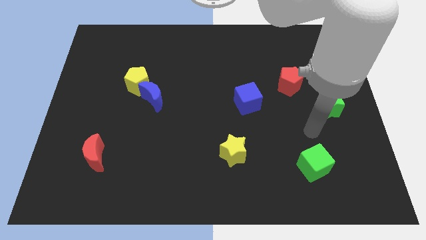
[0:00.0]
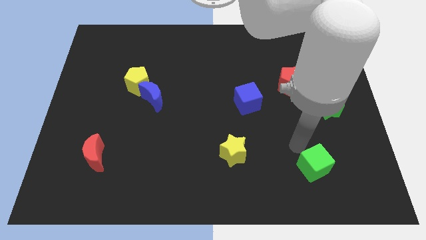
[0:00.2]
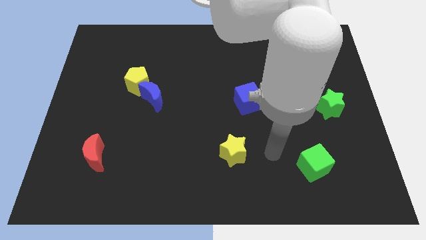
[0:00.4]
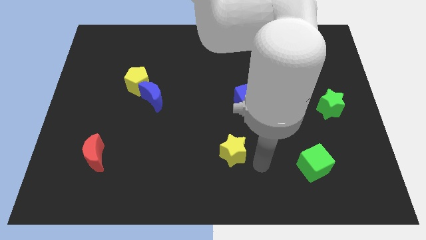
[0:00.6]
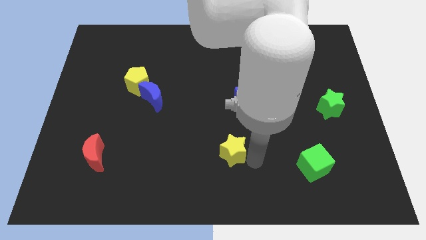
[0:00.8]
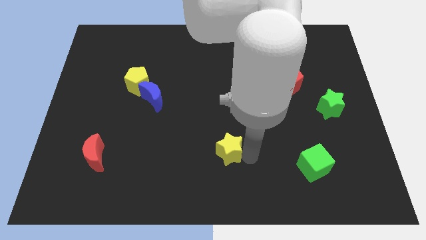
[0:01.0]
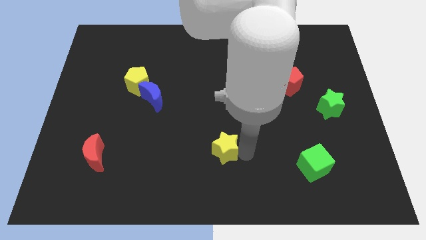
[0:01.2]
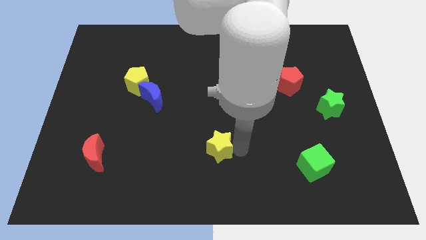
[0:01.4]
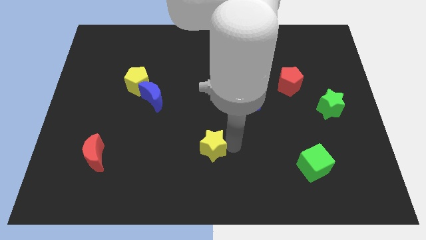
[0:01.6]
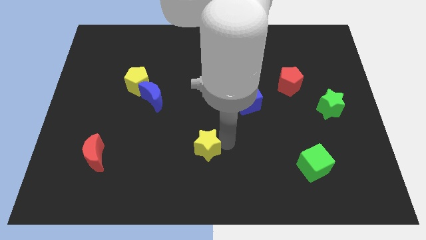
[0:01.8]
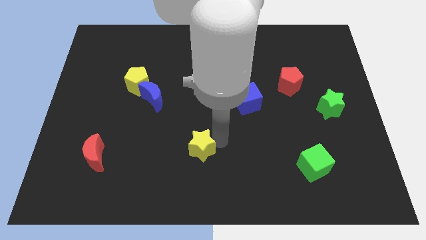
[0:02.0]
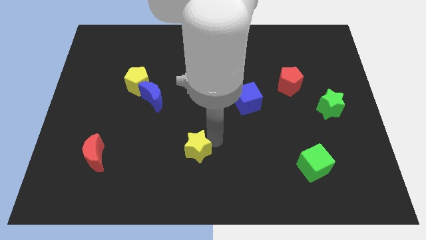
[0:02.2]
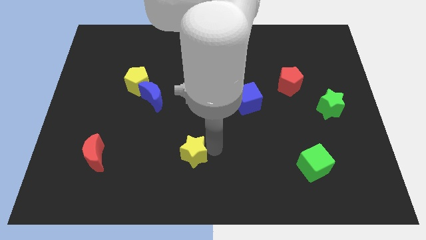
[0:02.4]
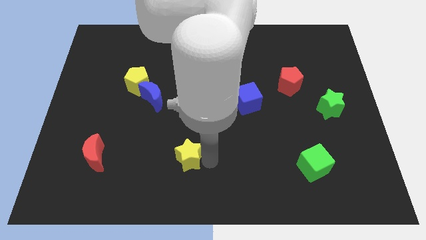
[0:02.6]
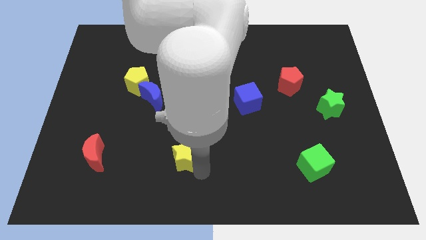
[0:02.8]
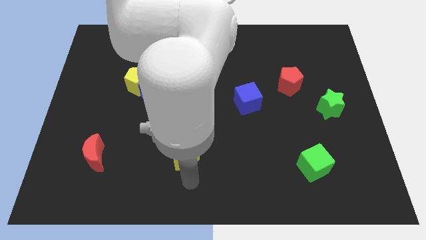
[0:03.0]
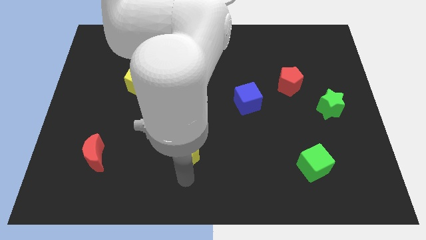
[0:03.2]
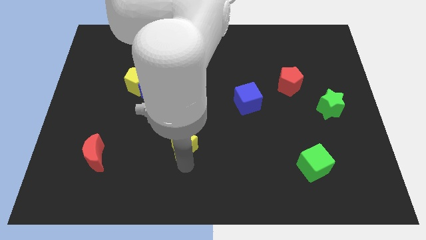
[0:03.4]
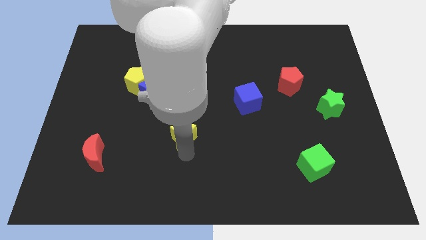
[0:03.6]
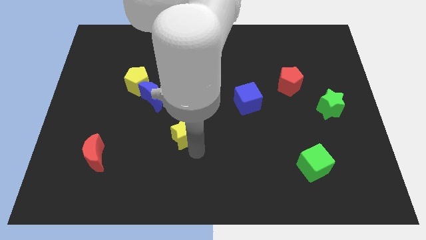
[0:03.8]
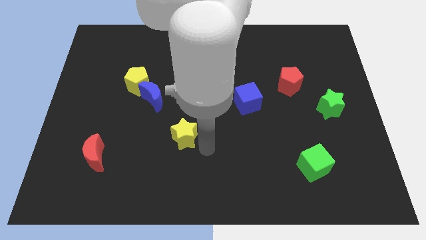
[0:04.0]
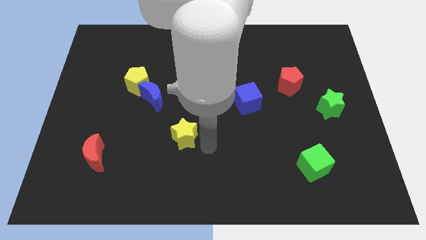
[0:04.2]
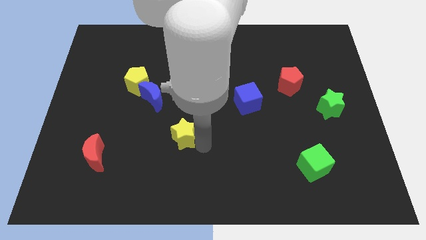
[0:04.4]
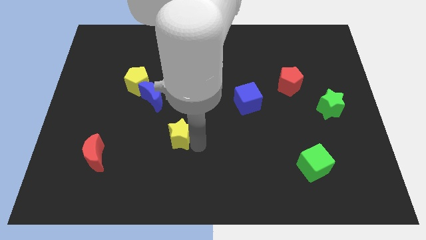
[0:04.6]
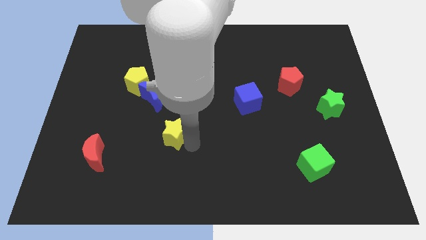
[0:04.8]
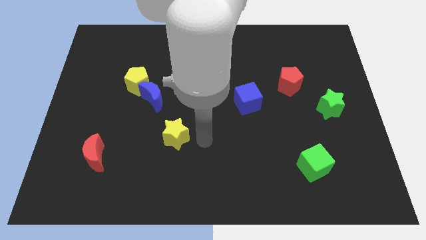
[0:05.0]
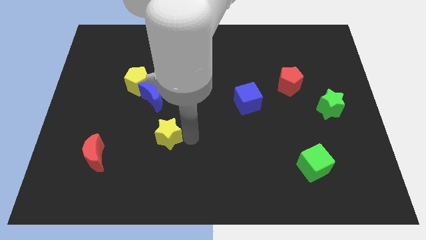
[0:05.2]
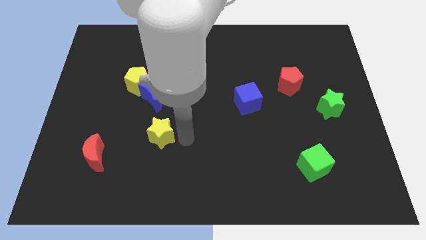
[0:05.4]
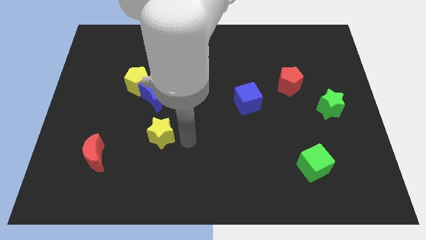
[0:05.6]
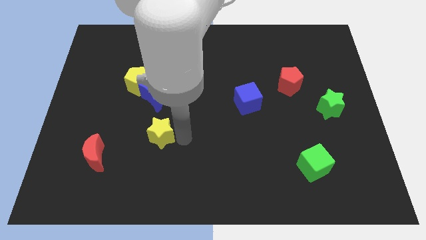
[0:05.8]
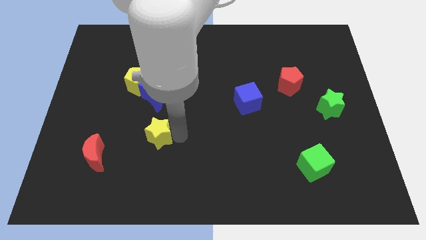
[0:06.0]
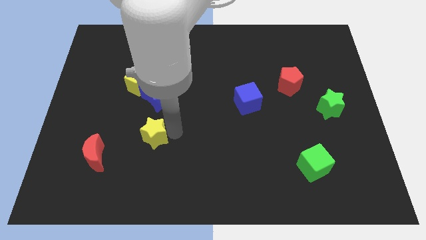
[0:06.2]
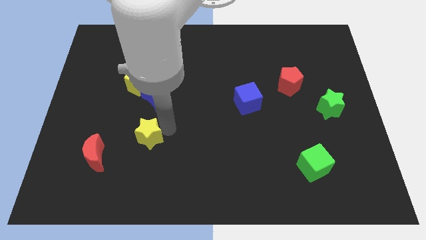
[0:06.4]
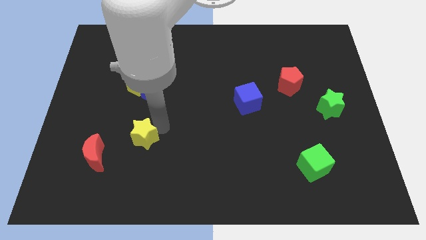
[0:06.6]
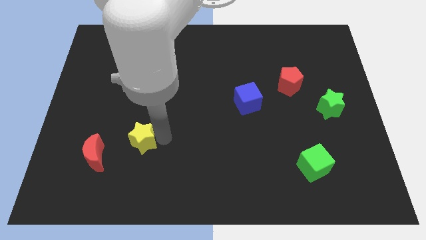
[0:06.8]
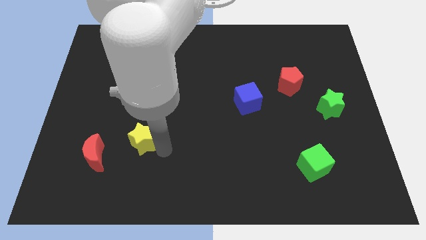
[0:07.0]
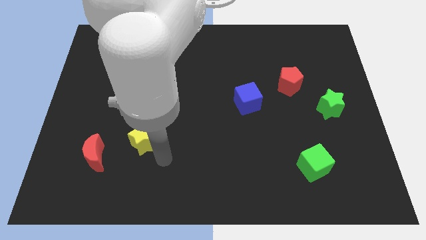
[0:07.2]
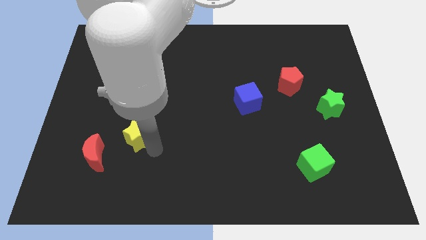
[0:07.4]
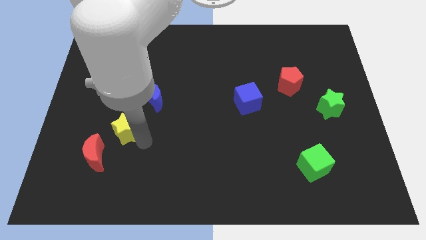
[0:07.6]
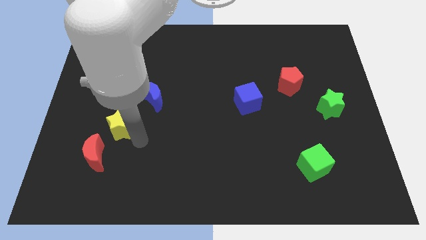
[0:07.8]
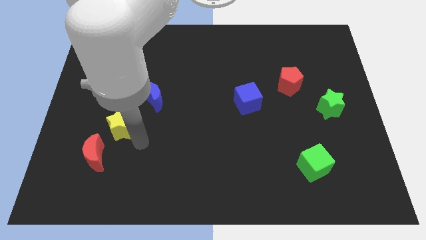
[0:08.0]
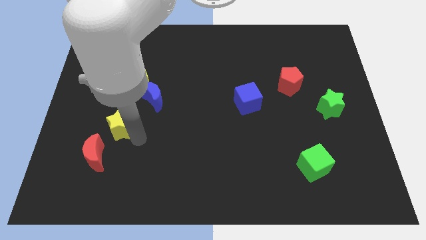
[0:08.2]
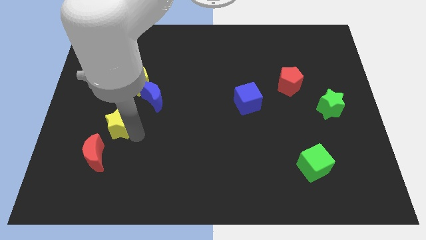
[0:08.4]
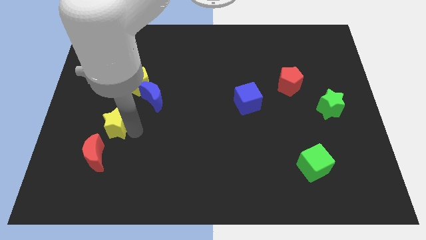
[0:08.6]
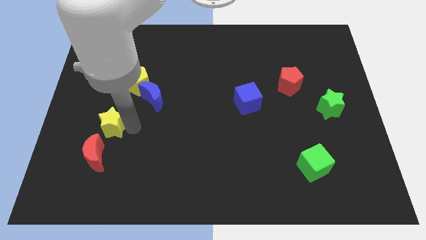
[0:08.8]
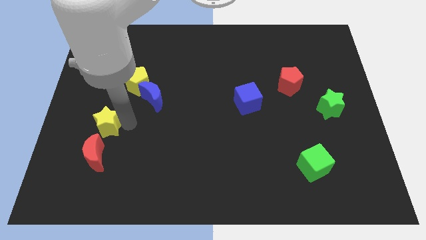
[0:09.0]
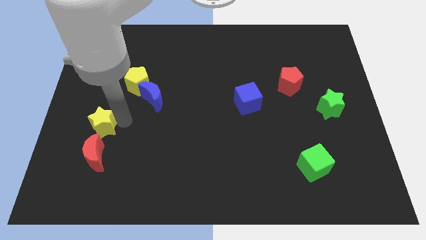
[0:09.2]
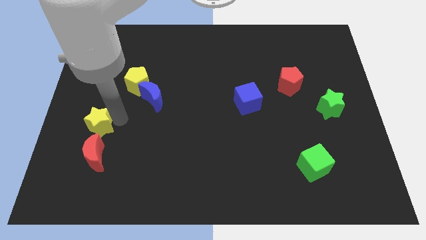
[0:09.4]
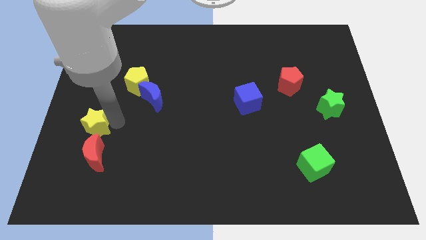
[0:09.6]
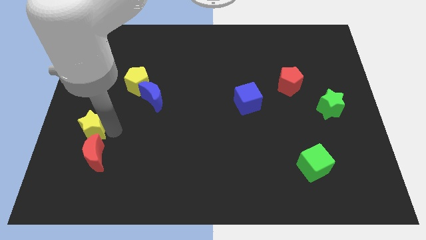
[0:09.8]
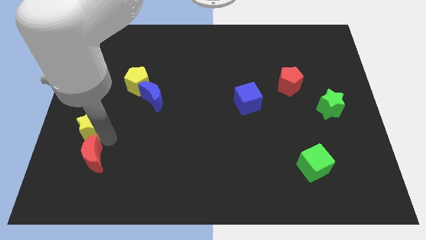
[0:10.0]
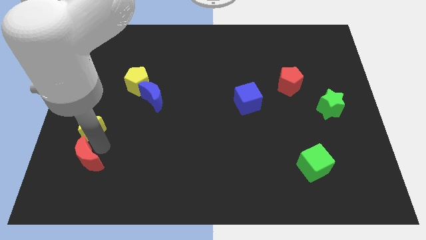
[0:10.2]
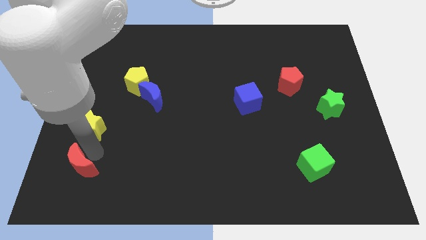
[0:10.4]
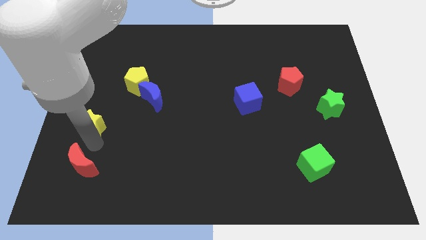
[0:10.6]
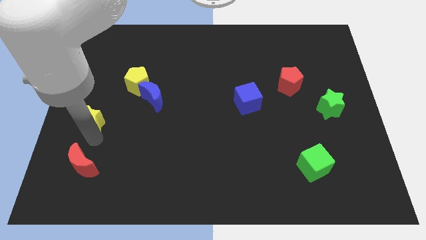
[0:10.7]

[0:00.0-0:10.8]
move the yellow star to the left side of the board
